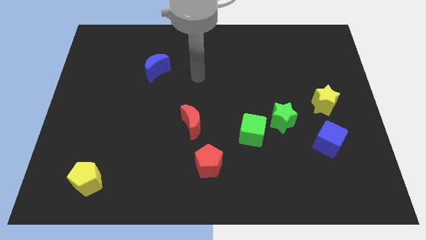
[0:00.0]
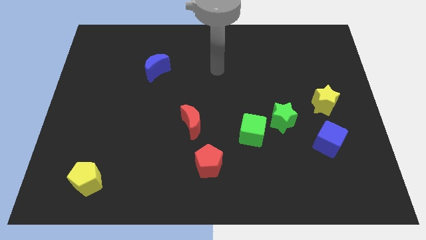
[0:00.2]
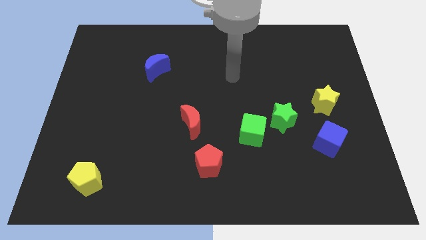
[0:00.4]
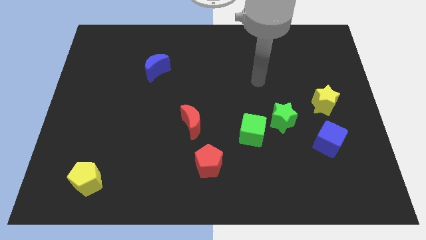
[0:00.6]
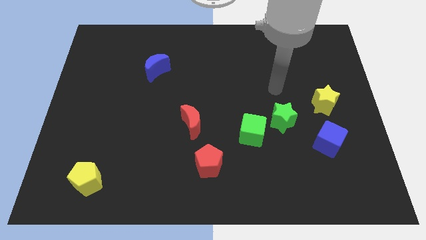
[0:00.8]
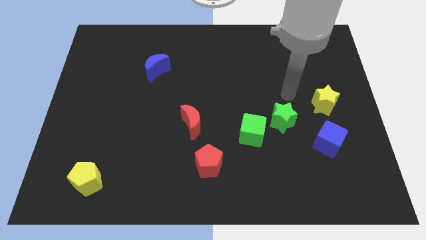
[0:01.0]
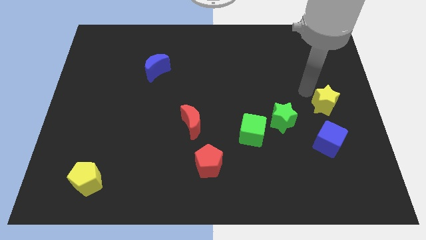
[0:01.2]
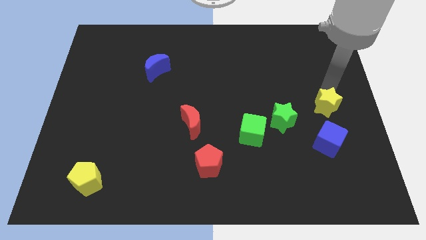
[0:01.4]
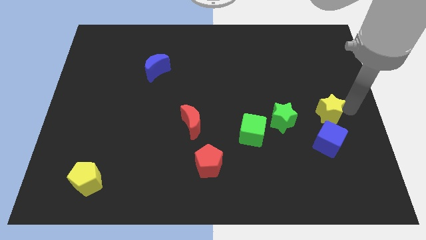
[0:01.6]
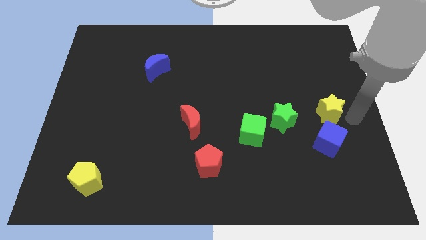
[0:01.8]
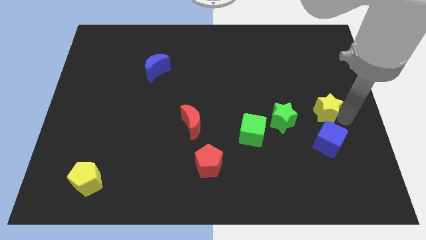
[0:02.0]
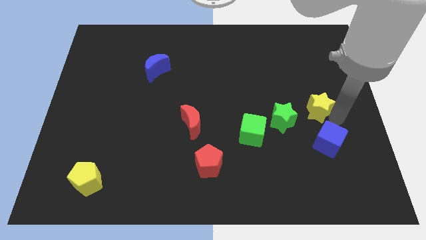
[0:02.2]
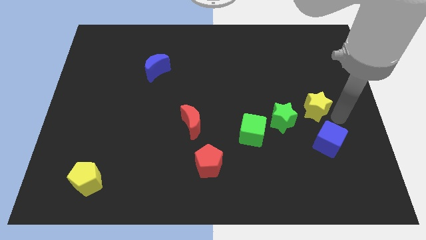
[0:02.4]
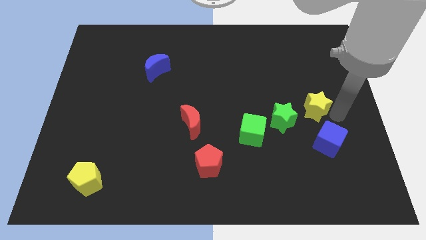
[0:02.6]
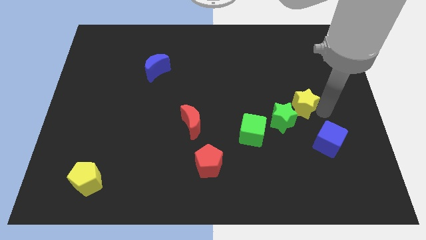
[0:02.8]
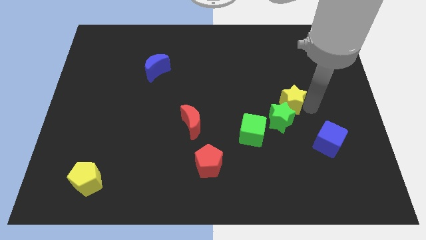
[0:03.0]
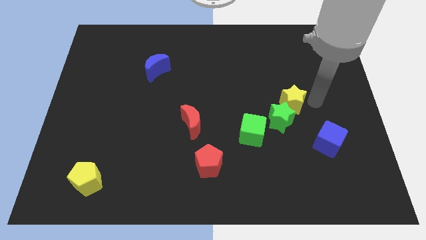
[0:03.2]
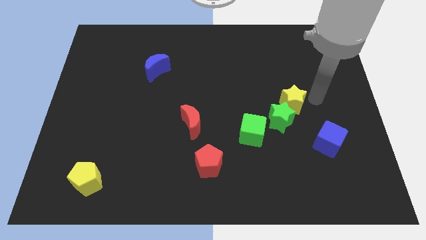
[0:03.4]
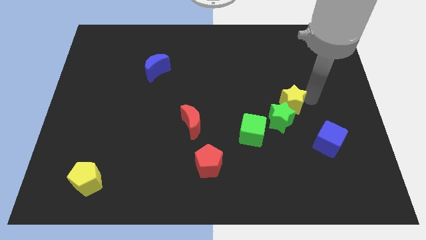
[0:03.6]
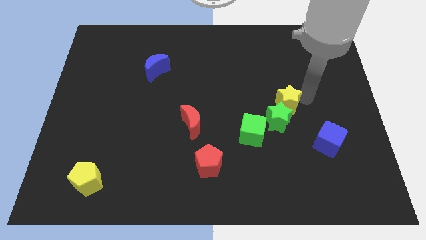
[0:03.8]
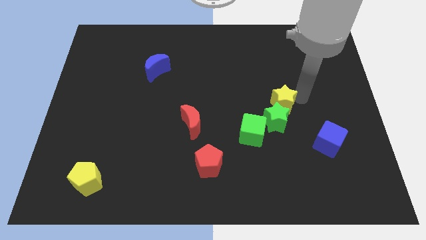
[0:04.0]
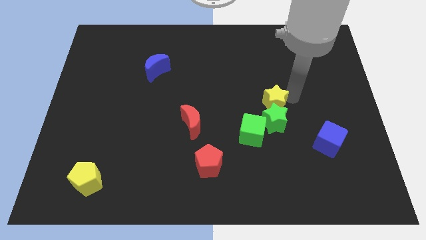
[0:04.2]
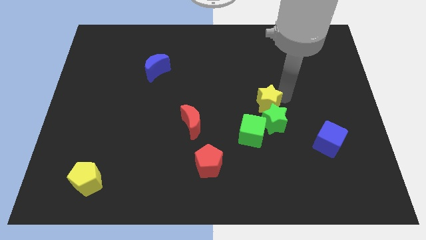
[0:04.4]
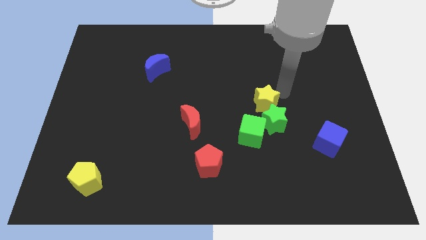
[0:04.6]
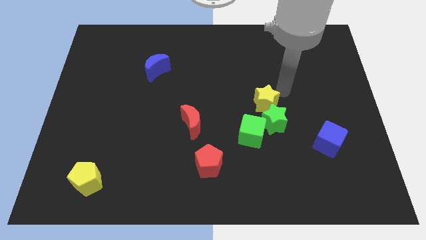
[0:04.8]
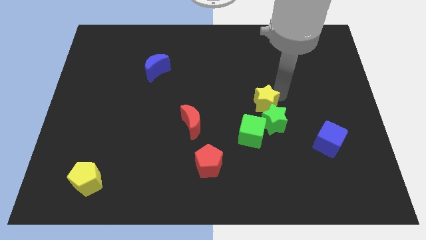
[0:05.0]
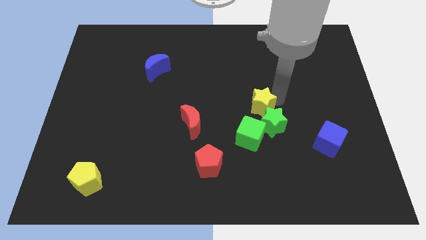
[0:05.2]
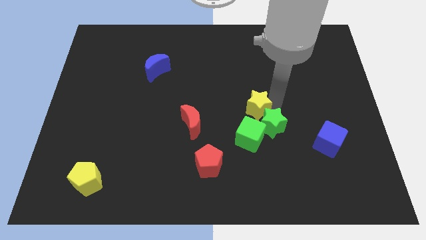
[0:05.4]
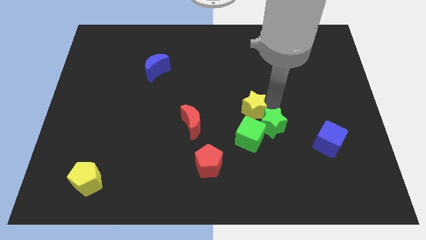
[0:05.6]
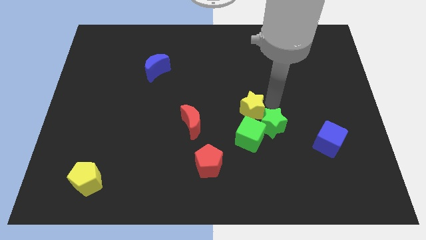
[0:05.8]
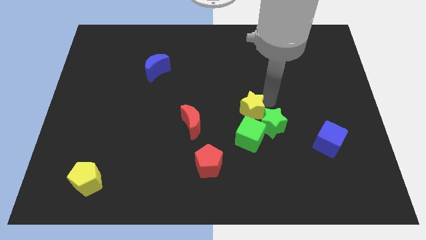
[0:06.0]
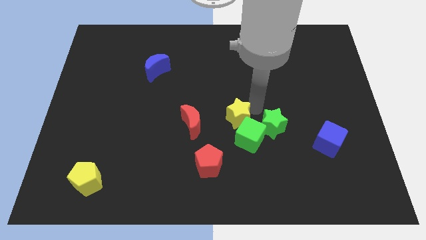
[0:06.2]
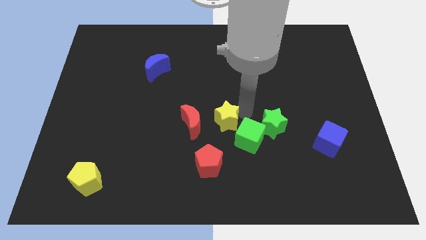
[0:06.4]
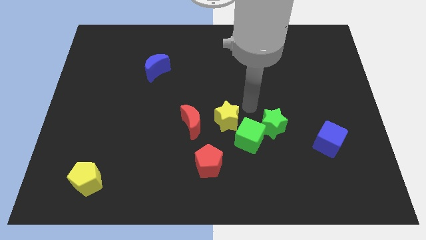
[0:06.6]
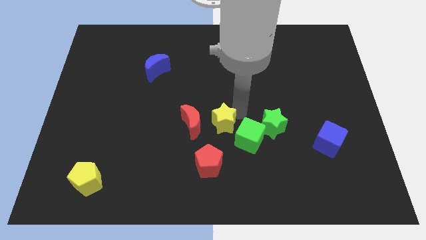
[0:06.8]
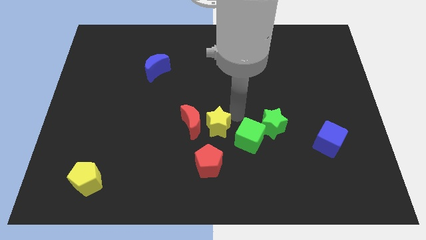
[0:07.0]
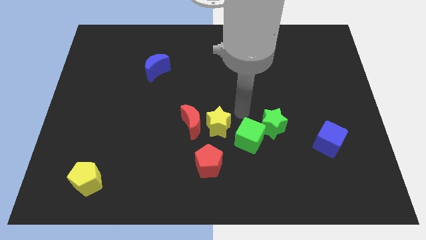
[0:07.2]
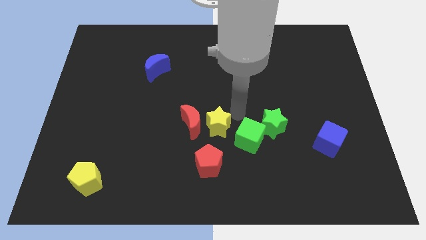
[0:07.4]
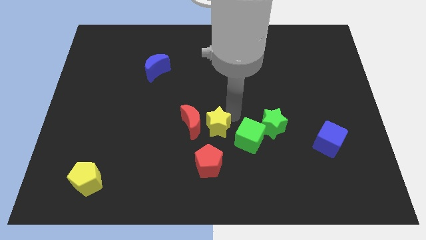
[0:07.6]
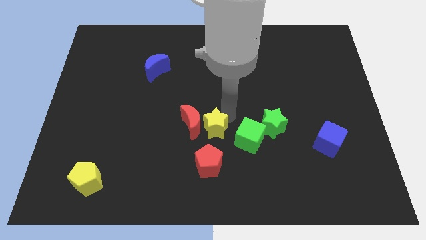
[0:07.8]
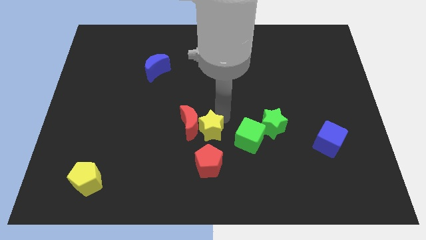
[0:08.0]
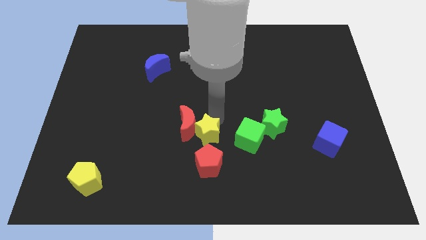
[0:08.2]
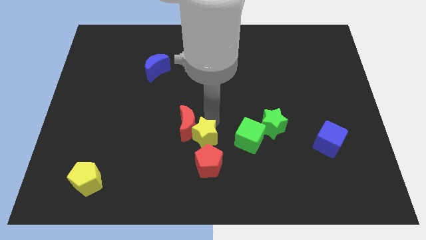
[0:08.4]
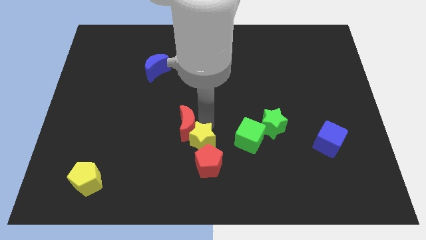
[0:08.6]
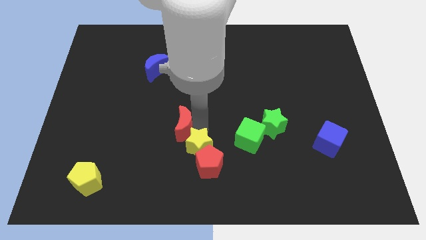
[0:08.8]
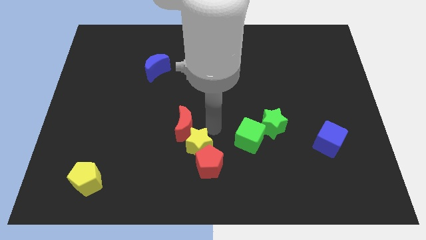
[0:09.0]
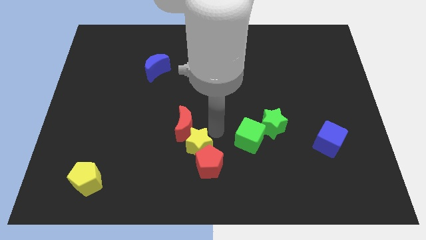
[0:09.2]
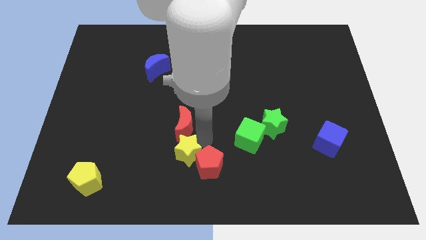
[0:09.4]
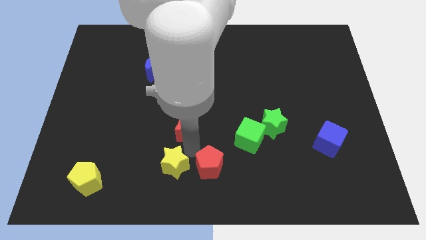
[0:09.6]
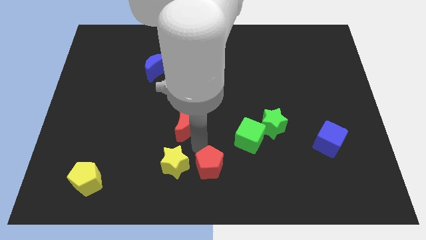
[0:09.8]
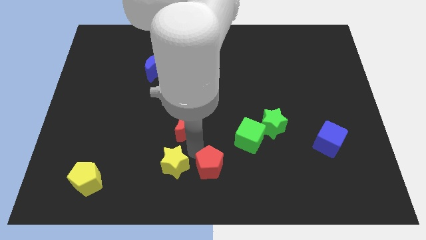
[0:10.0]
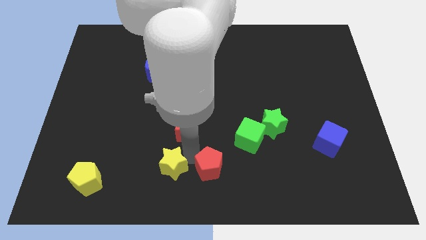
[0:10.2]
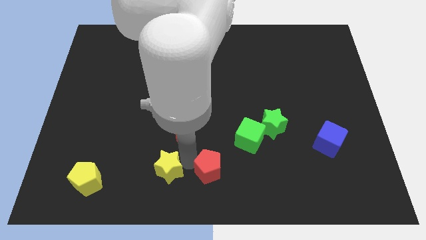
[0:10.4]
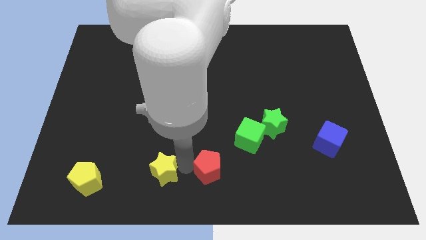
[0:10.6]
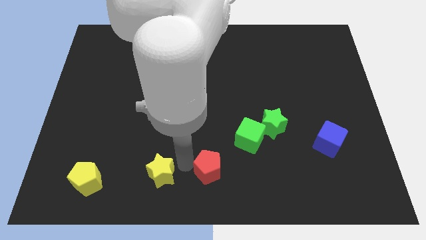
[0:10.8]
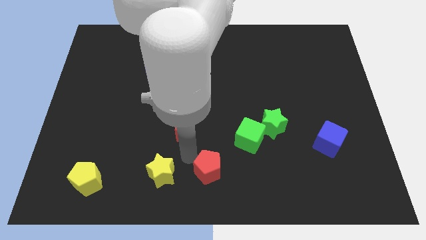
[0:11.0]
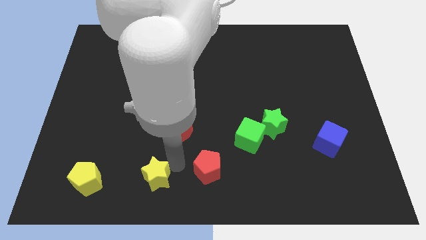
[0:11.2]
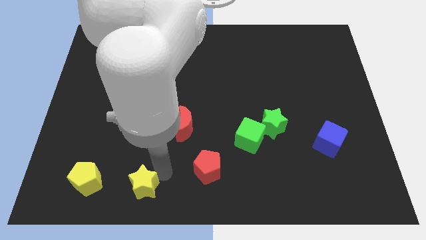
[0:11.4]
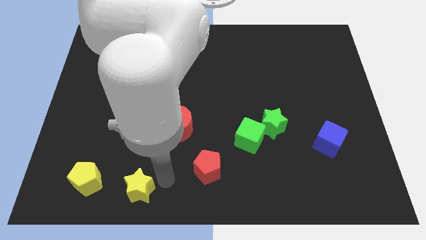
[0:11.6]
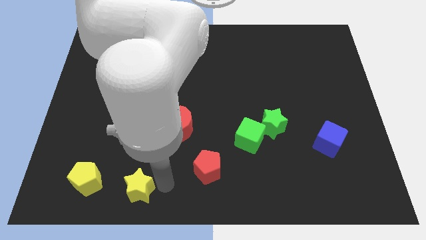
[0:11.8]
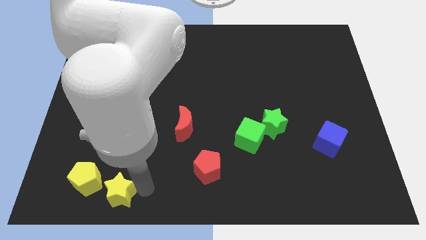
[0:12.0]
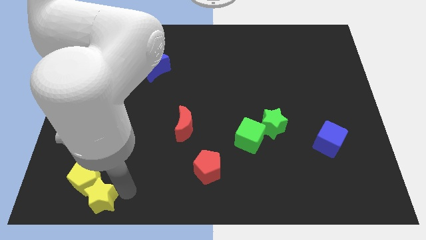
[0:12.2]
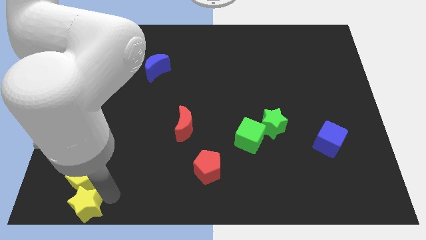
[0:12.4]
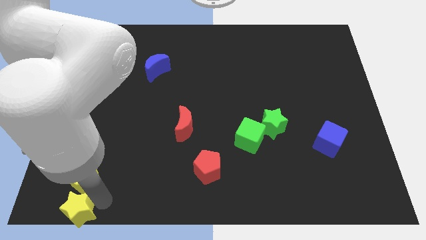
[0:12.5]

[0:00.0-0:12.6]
slide the yellow star to the lower left corner

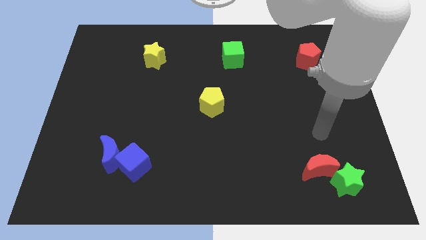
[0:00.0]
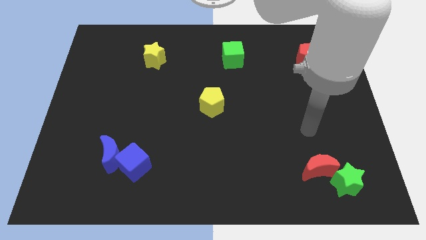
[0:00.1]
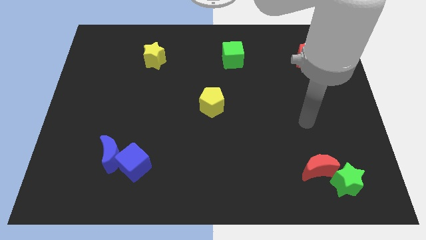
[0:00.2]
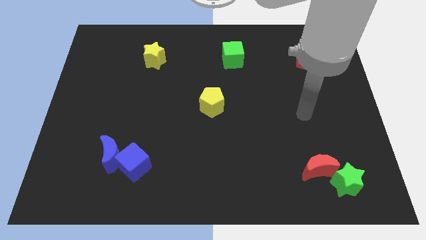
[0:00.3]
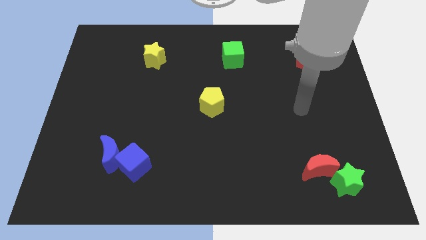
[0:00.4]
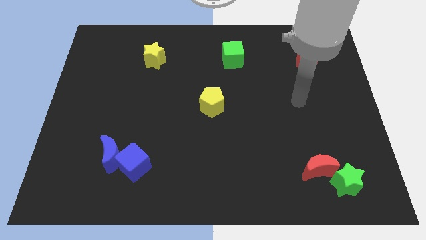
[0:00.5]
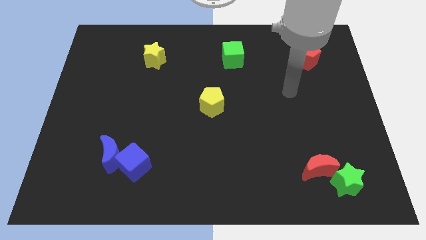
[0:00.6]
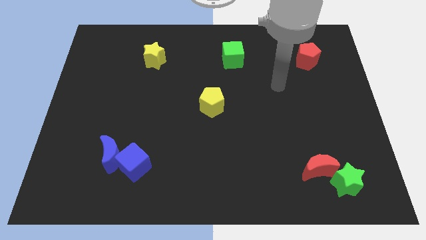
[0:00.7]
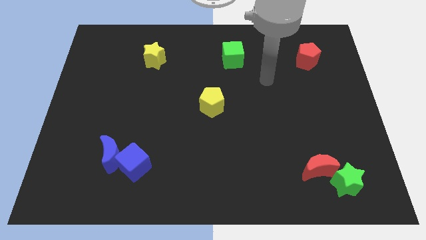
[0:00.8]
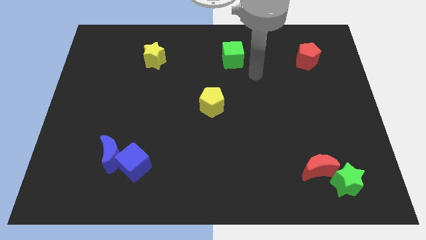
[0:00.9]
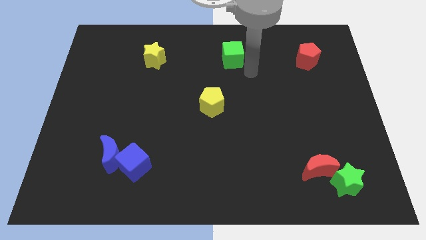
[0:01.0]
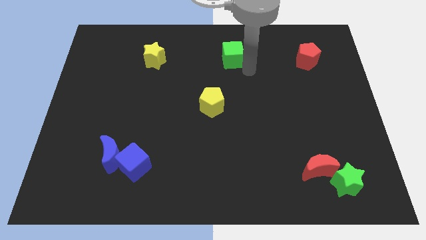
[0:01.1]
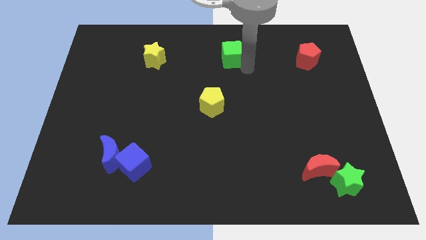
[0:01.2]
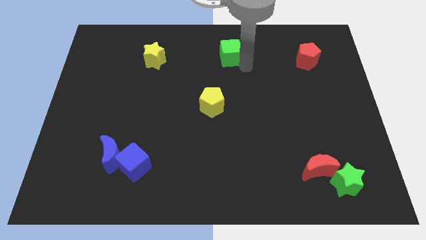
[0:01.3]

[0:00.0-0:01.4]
push the green cube to the towards your base
